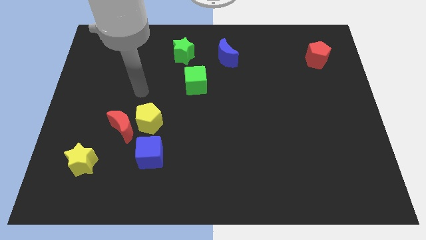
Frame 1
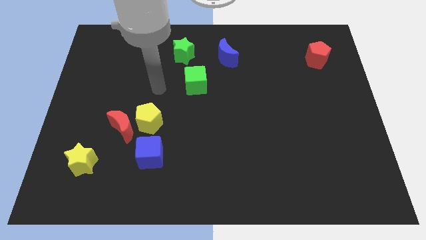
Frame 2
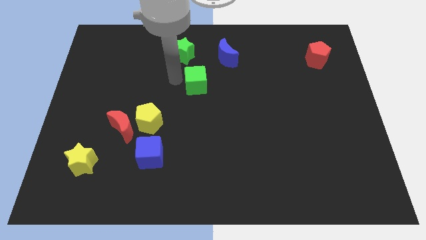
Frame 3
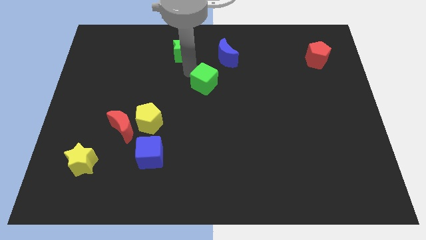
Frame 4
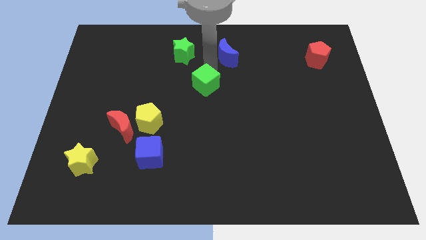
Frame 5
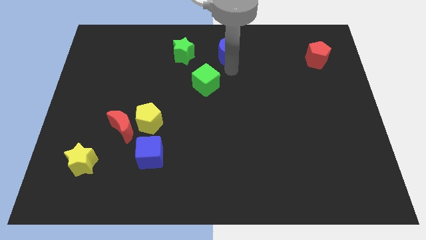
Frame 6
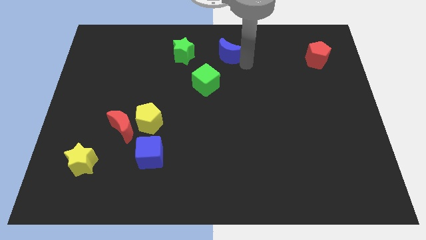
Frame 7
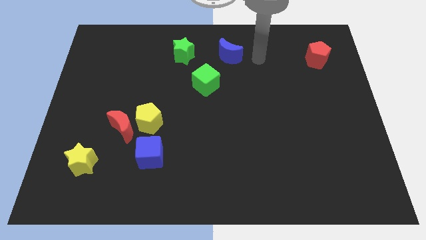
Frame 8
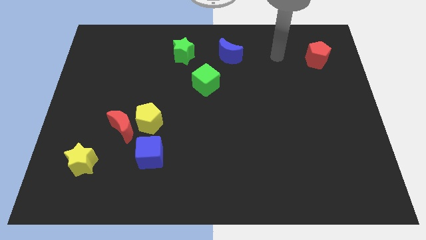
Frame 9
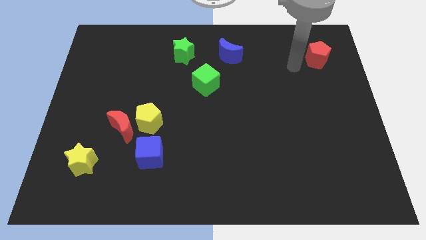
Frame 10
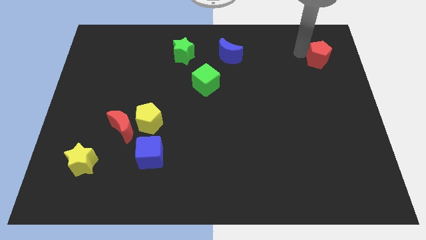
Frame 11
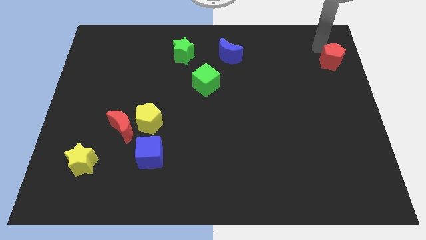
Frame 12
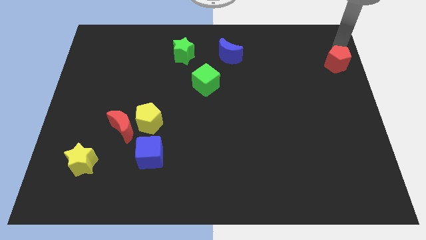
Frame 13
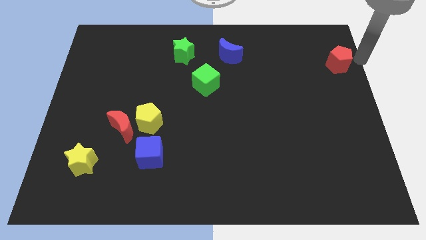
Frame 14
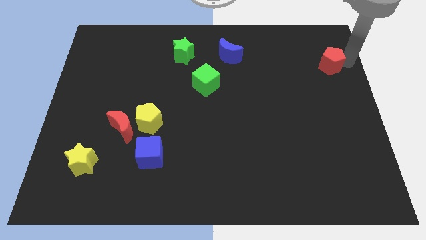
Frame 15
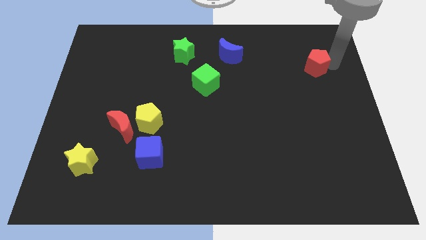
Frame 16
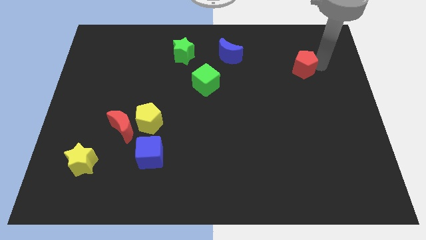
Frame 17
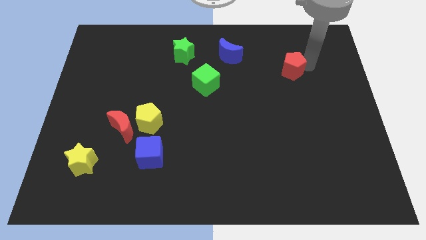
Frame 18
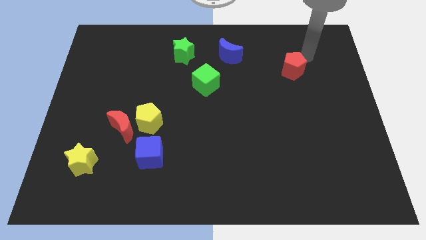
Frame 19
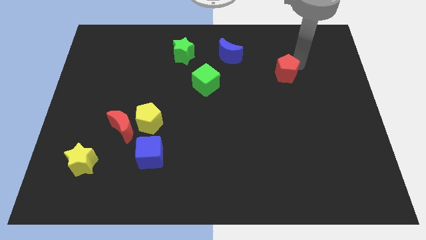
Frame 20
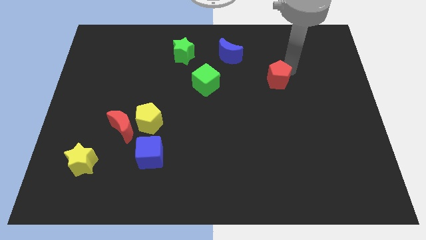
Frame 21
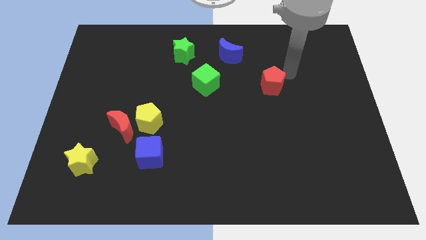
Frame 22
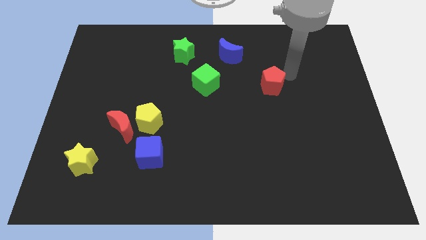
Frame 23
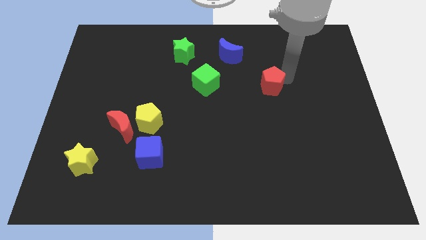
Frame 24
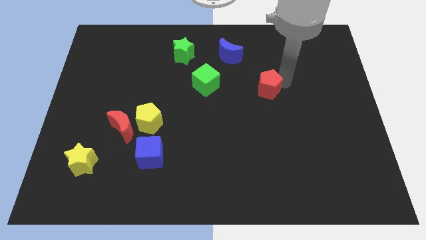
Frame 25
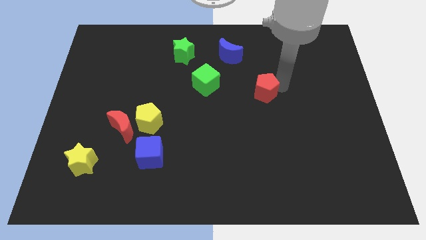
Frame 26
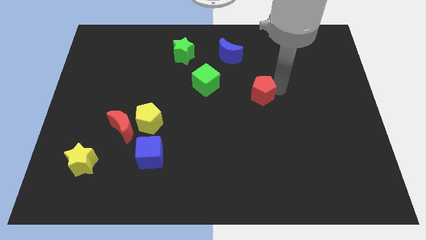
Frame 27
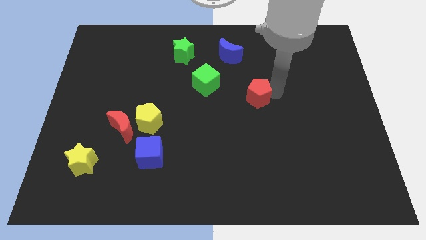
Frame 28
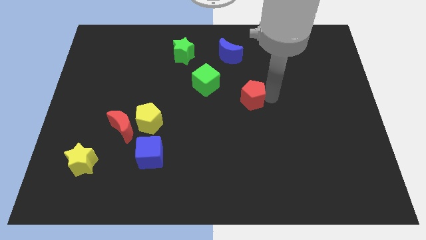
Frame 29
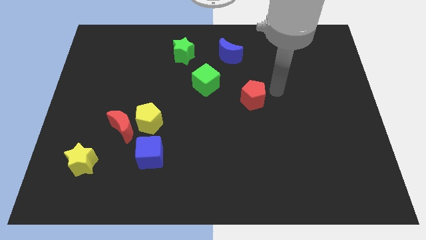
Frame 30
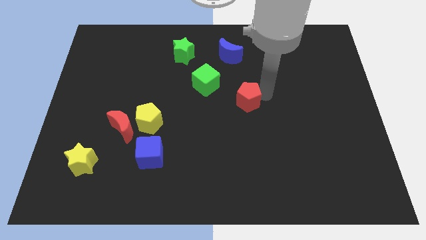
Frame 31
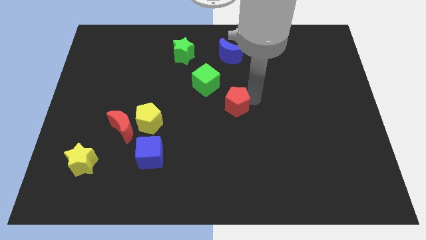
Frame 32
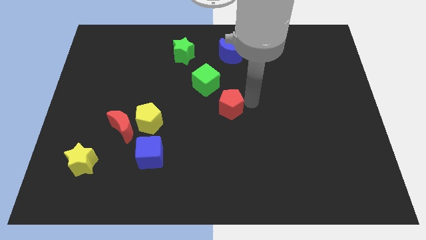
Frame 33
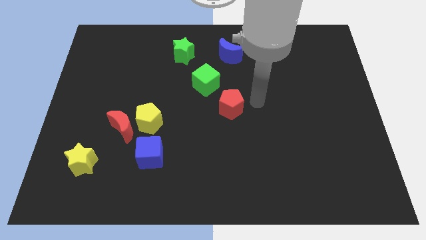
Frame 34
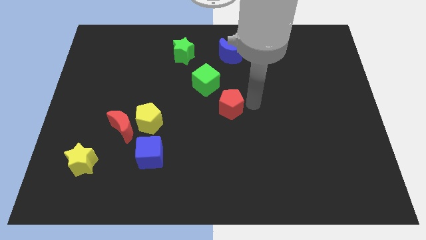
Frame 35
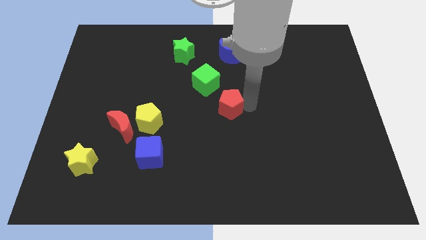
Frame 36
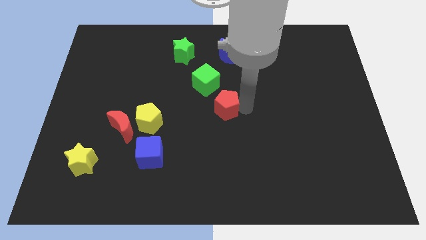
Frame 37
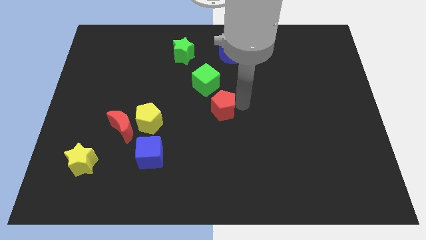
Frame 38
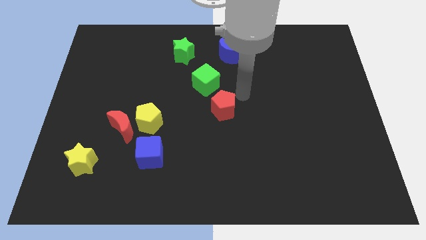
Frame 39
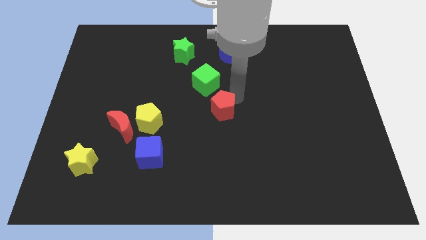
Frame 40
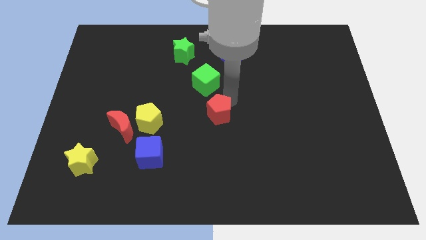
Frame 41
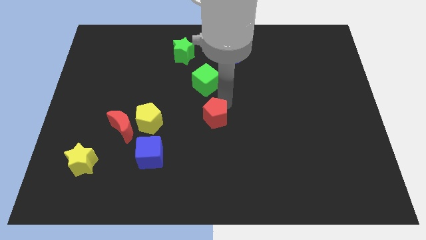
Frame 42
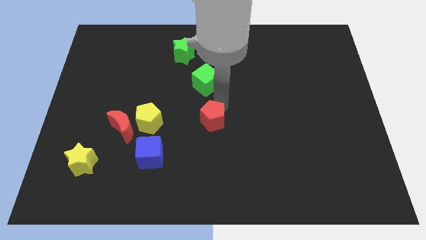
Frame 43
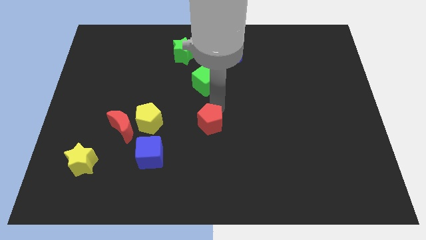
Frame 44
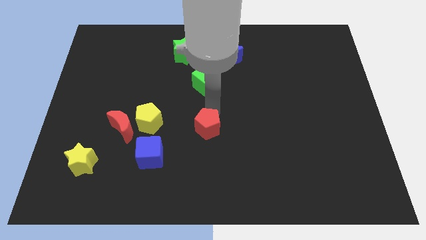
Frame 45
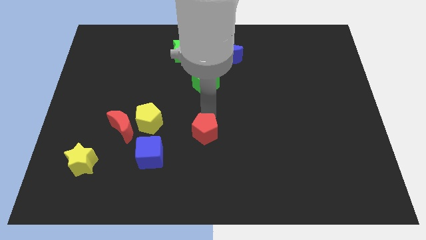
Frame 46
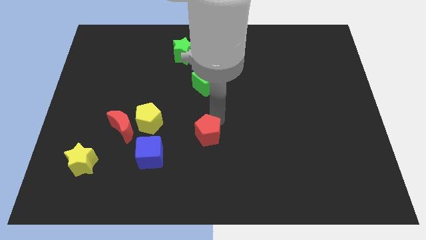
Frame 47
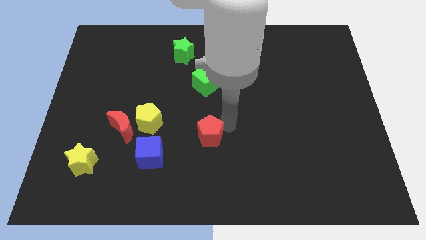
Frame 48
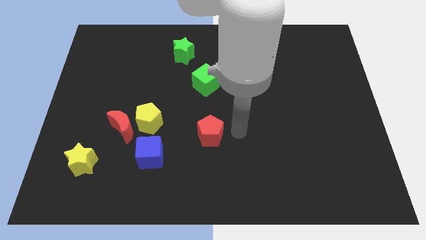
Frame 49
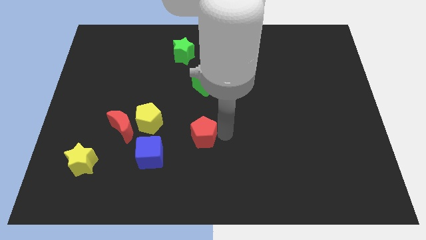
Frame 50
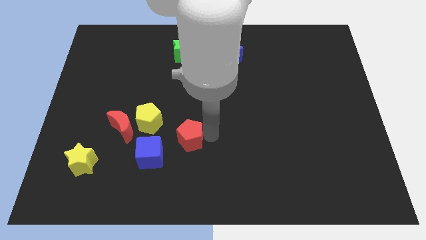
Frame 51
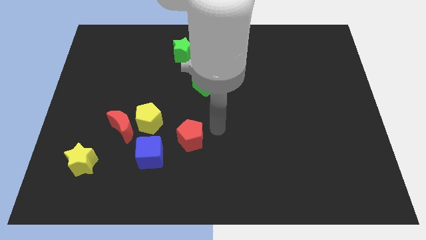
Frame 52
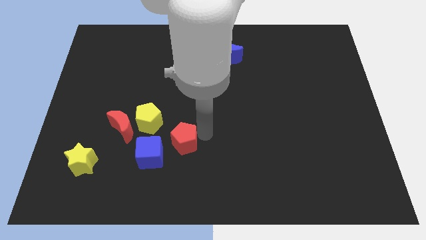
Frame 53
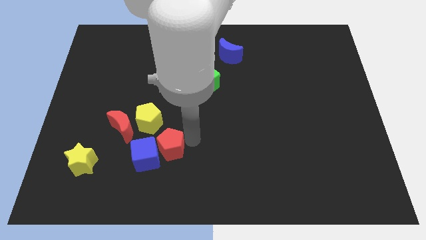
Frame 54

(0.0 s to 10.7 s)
put the red pentagon towards the blue cube

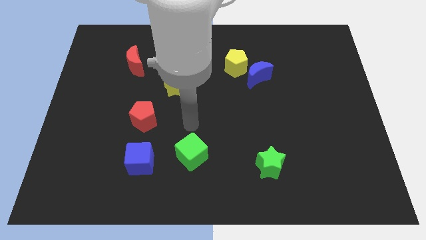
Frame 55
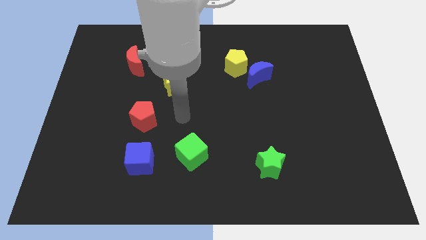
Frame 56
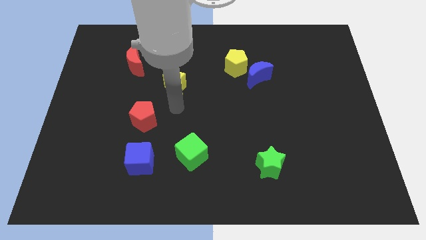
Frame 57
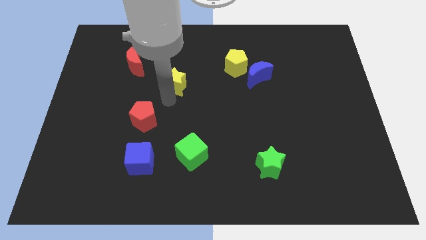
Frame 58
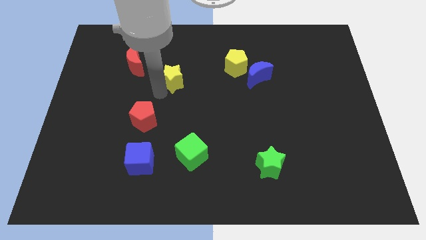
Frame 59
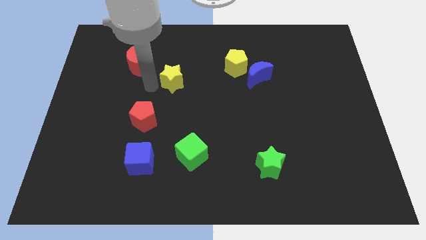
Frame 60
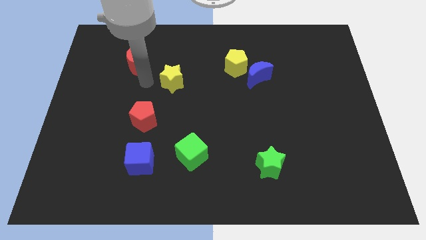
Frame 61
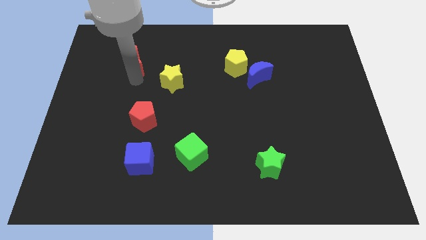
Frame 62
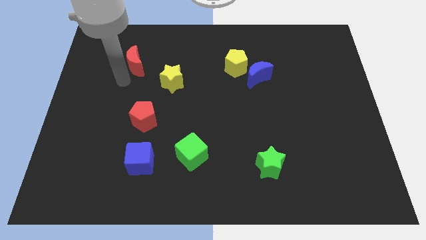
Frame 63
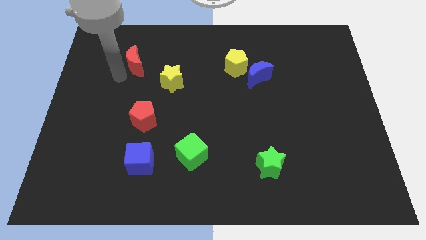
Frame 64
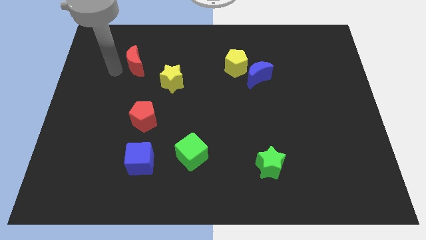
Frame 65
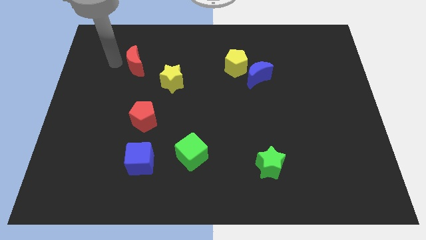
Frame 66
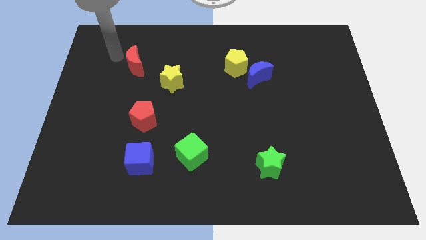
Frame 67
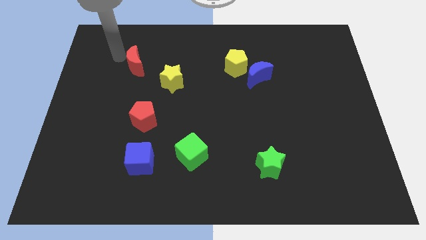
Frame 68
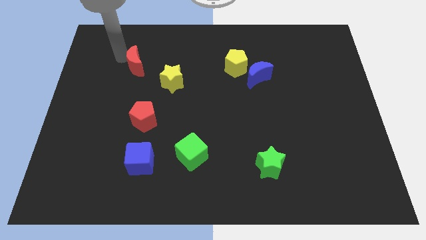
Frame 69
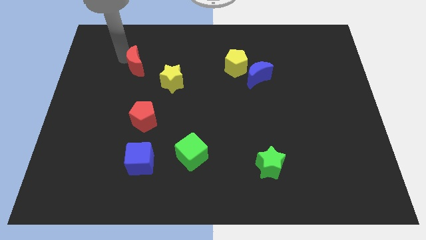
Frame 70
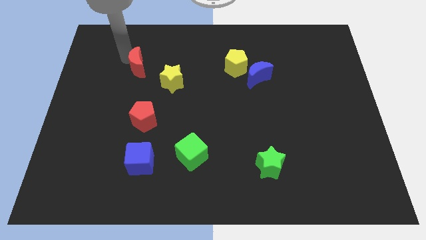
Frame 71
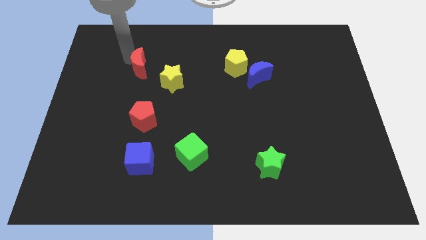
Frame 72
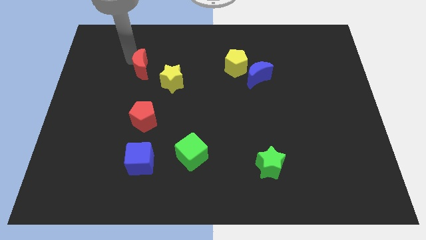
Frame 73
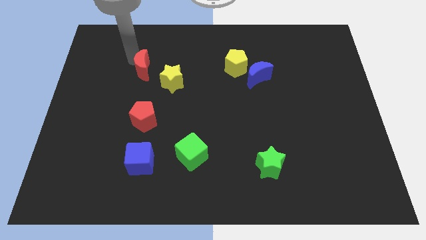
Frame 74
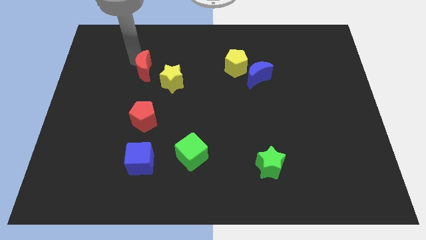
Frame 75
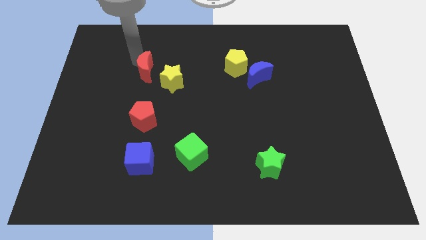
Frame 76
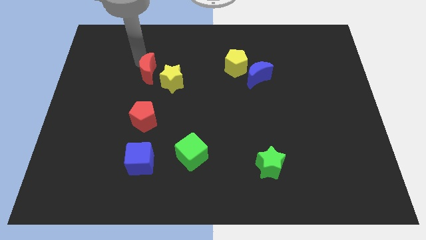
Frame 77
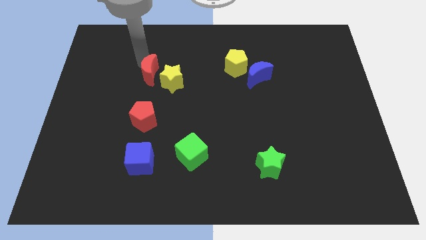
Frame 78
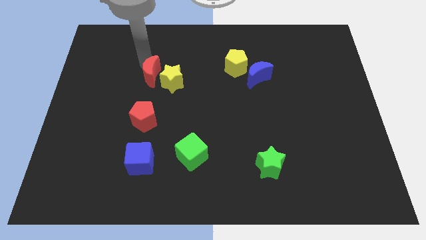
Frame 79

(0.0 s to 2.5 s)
push the red moon towards the yellow star
